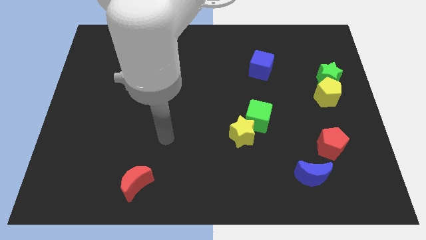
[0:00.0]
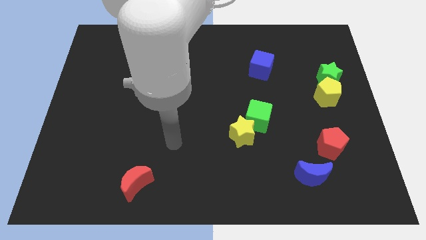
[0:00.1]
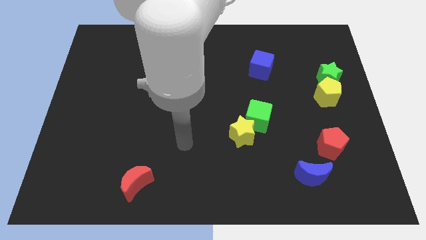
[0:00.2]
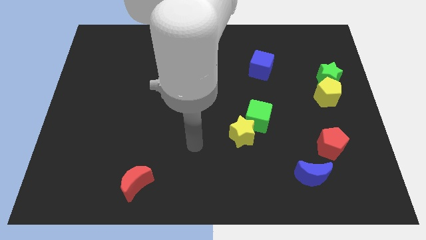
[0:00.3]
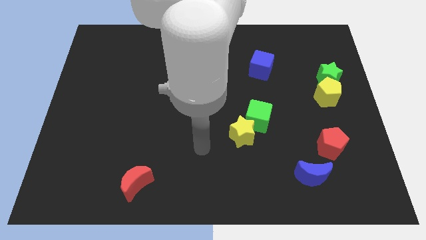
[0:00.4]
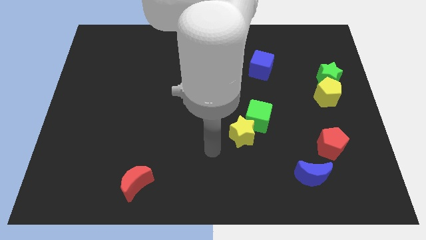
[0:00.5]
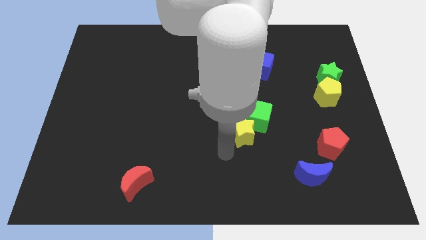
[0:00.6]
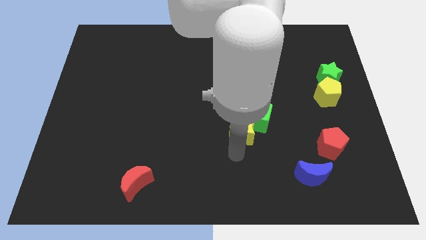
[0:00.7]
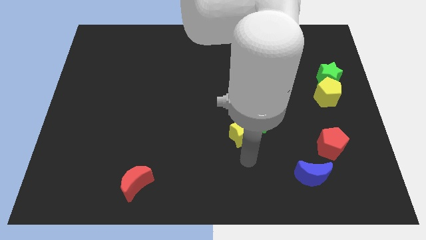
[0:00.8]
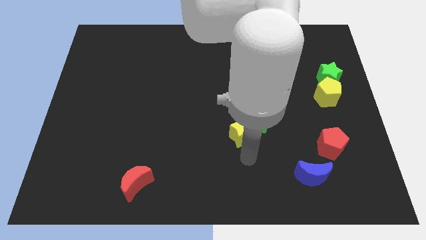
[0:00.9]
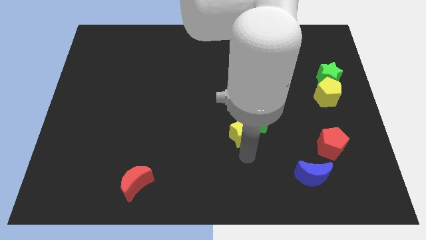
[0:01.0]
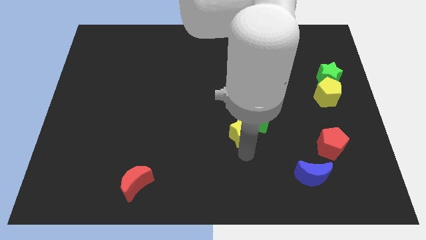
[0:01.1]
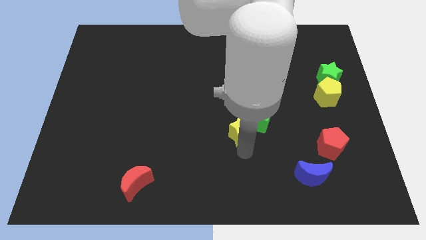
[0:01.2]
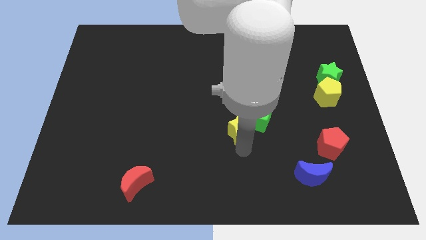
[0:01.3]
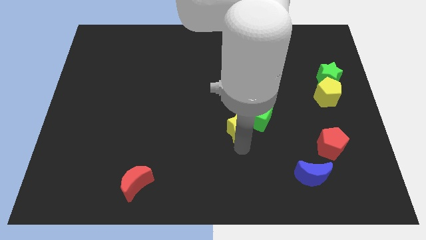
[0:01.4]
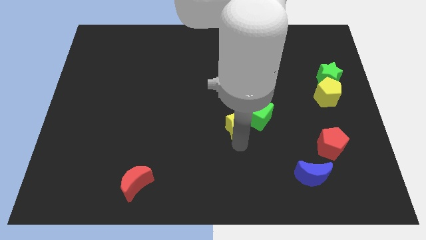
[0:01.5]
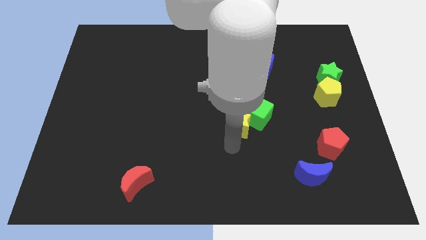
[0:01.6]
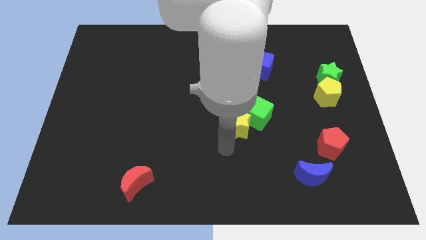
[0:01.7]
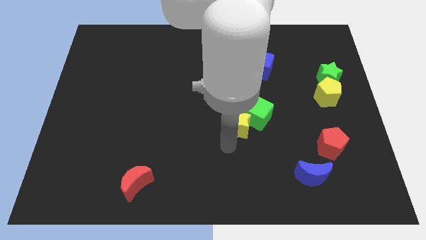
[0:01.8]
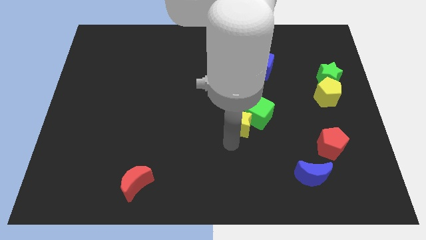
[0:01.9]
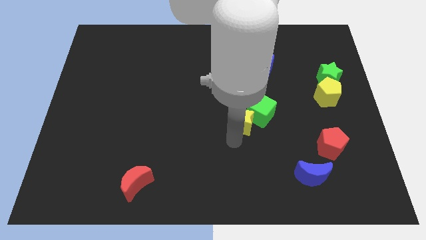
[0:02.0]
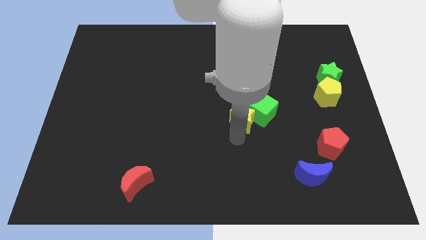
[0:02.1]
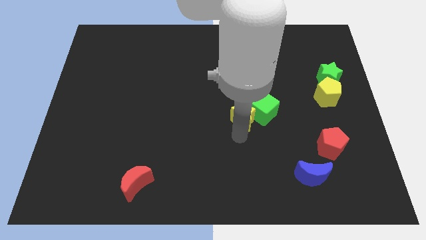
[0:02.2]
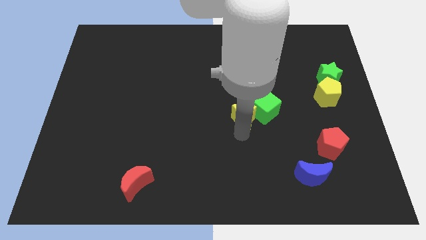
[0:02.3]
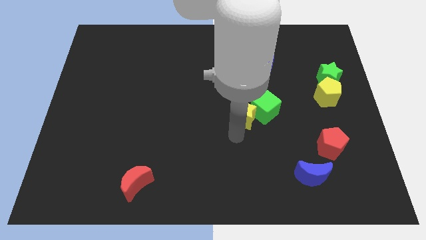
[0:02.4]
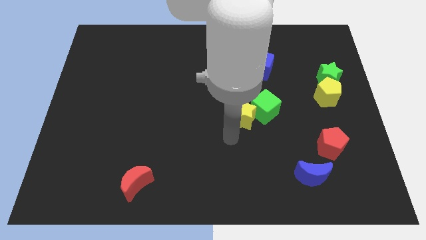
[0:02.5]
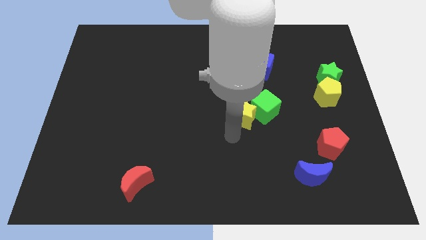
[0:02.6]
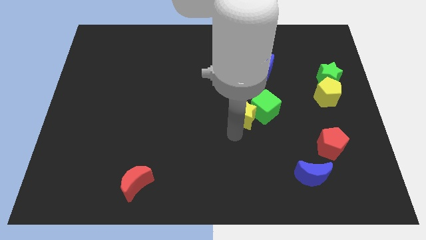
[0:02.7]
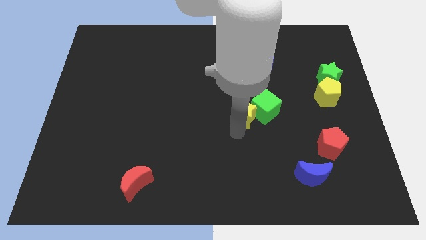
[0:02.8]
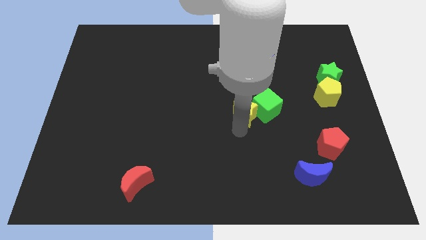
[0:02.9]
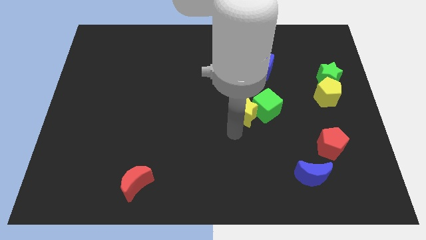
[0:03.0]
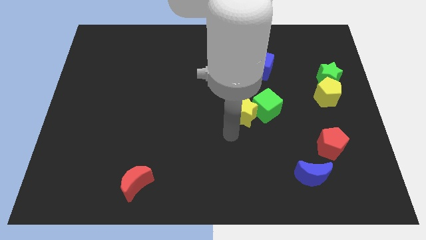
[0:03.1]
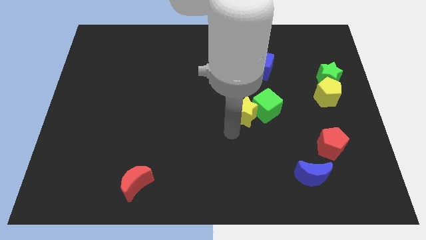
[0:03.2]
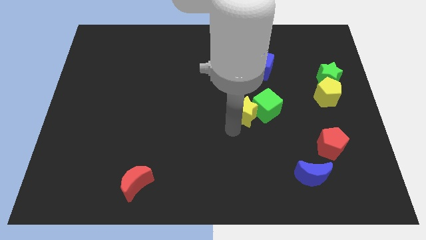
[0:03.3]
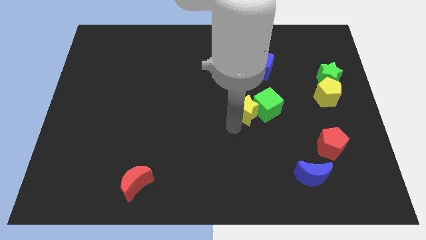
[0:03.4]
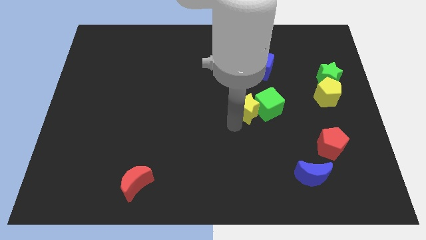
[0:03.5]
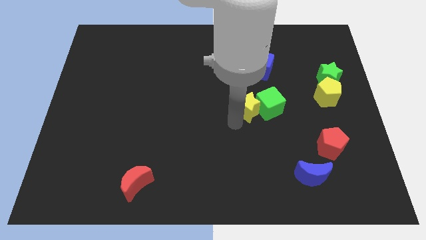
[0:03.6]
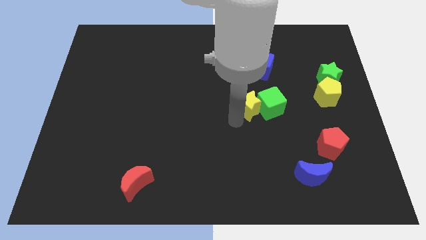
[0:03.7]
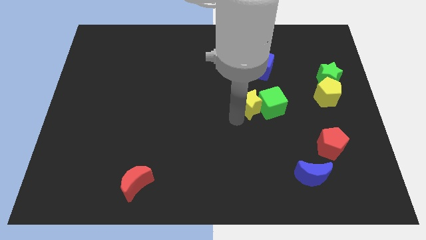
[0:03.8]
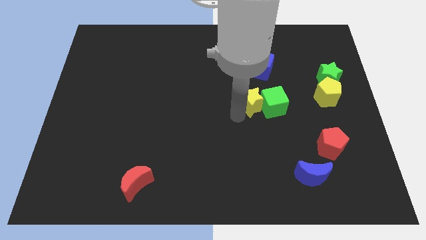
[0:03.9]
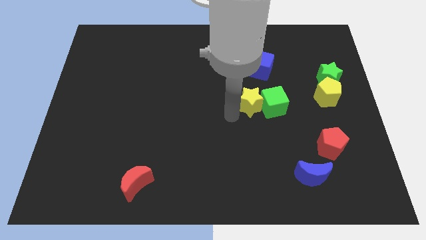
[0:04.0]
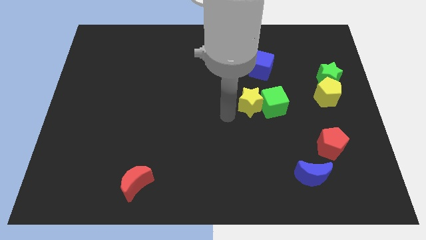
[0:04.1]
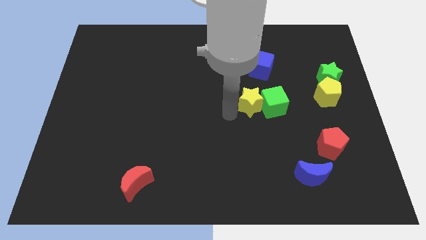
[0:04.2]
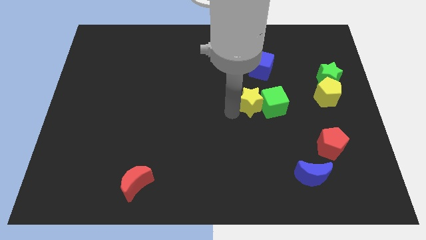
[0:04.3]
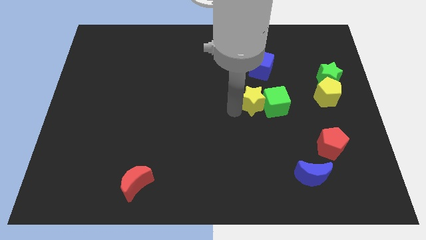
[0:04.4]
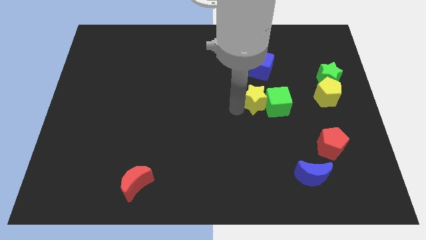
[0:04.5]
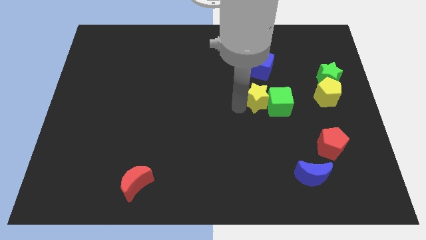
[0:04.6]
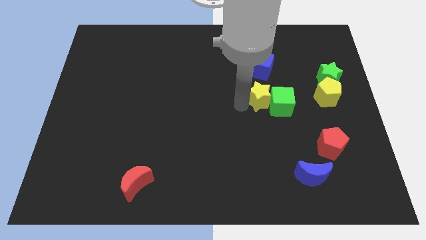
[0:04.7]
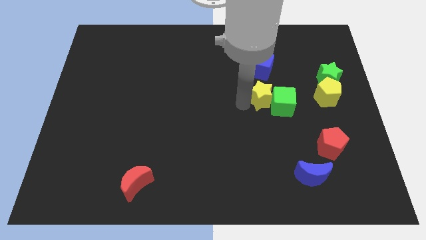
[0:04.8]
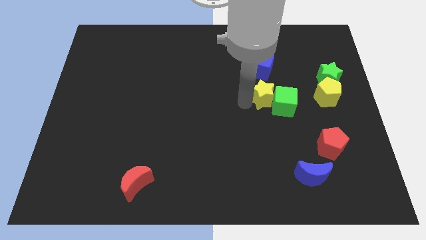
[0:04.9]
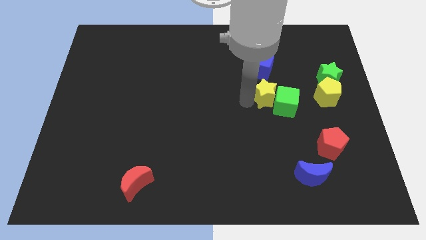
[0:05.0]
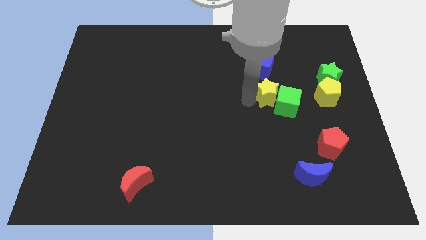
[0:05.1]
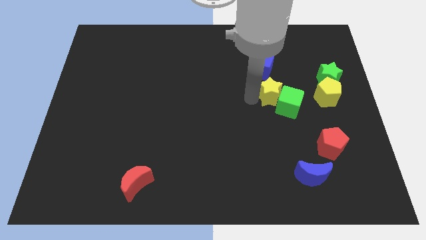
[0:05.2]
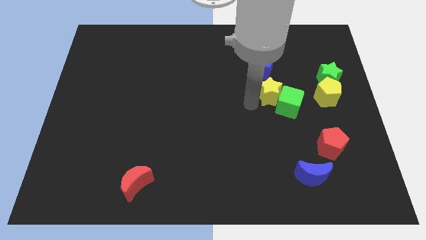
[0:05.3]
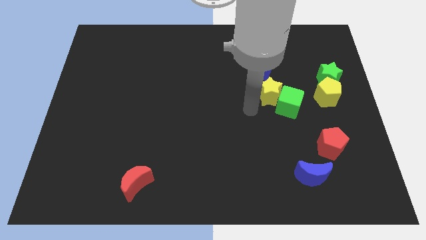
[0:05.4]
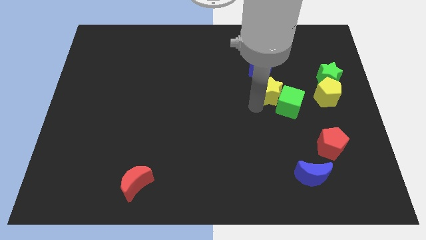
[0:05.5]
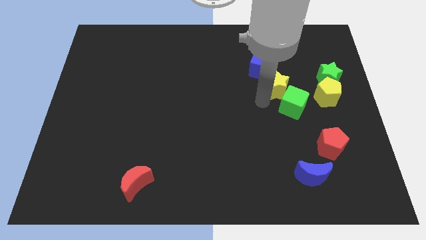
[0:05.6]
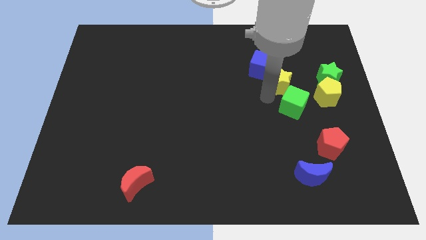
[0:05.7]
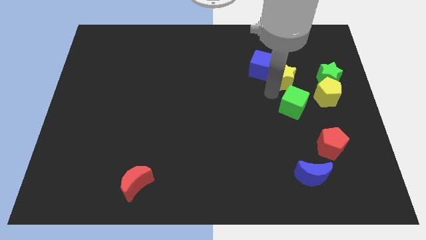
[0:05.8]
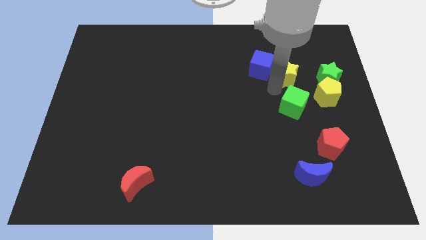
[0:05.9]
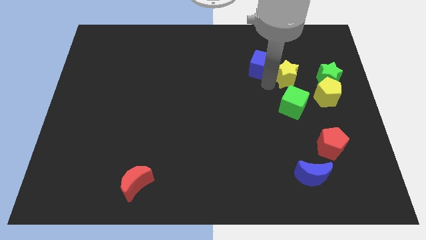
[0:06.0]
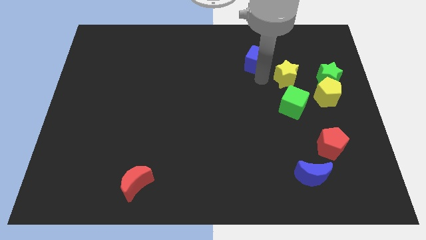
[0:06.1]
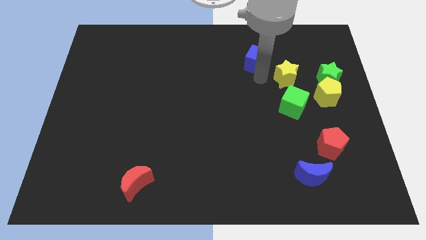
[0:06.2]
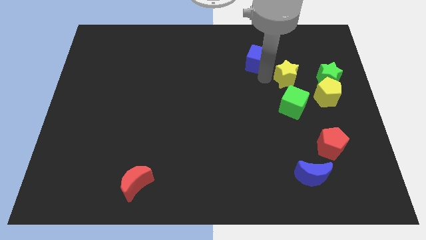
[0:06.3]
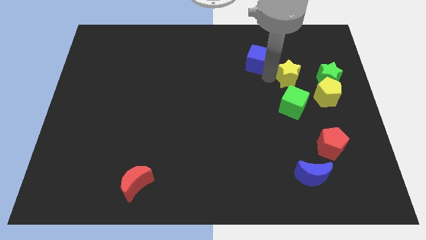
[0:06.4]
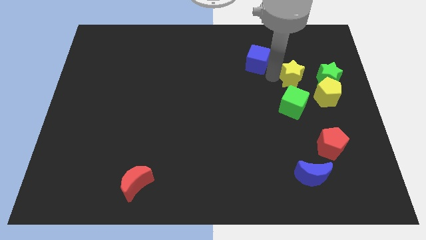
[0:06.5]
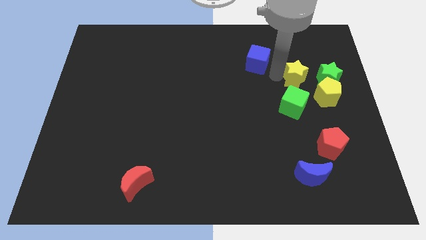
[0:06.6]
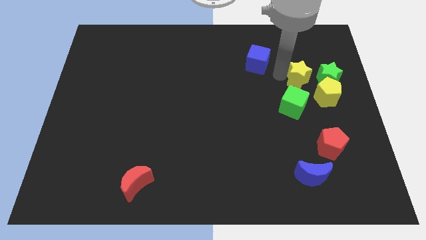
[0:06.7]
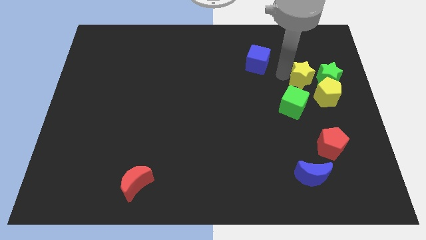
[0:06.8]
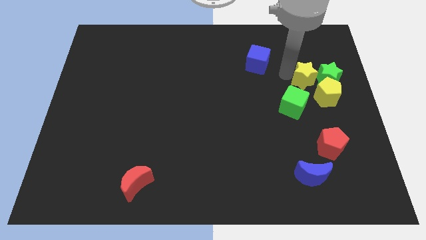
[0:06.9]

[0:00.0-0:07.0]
slide the yellow star close to the green star

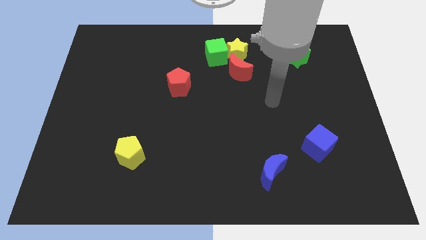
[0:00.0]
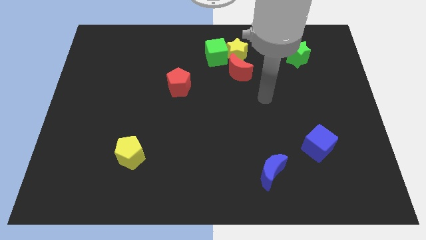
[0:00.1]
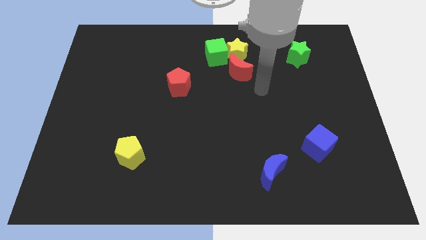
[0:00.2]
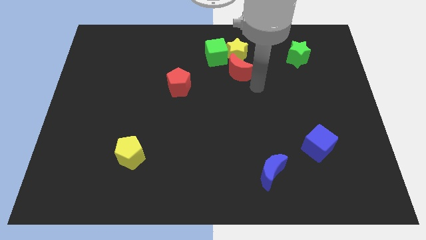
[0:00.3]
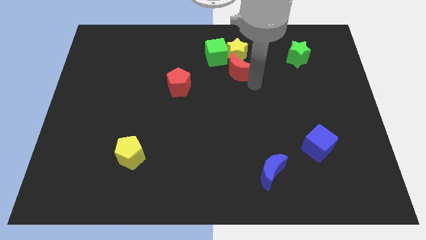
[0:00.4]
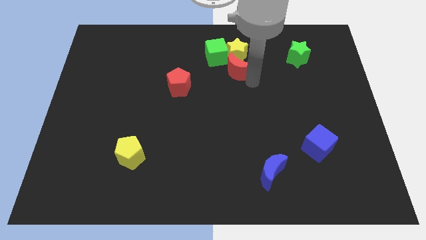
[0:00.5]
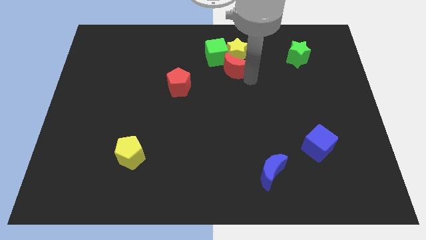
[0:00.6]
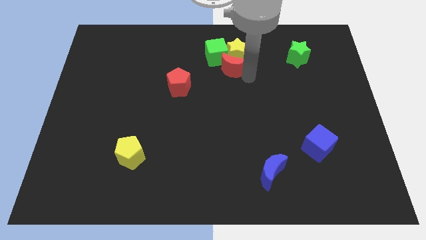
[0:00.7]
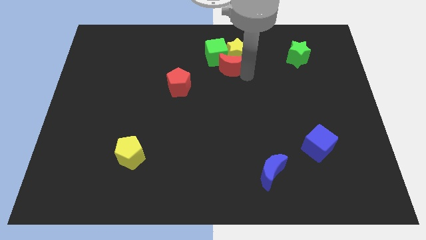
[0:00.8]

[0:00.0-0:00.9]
slide the red moon close to the green cube

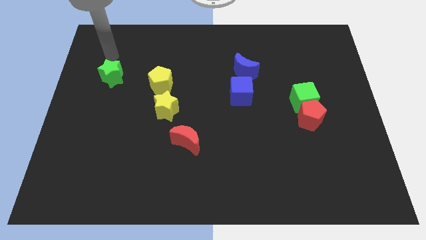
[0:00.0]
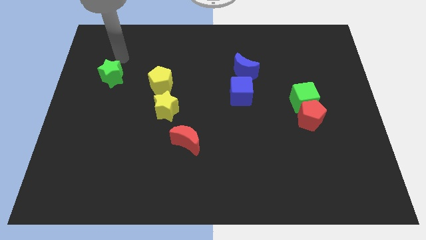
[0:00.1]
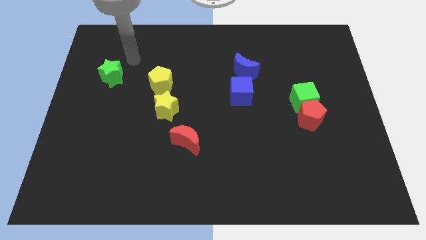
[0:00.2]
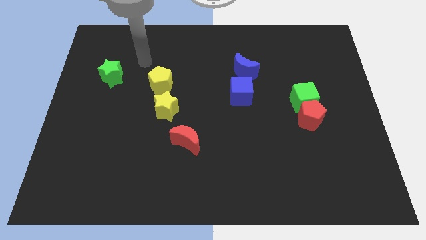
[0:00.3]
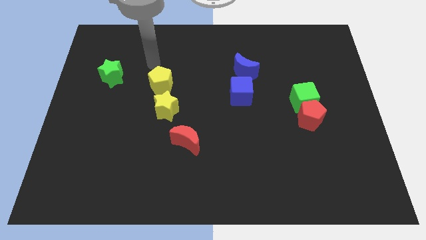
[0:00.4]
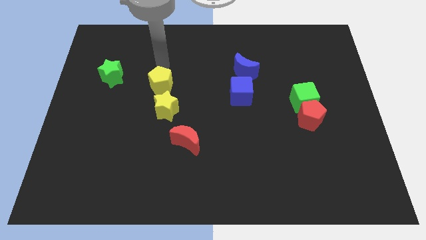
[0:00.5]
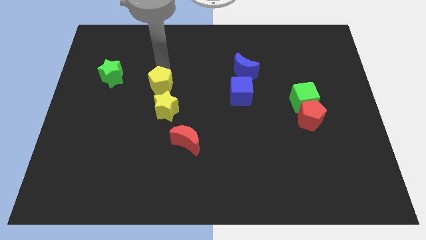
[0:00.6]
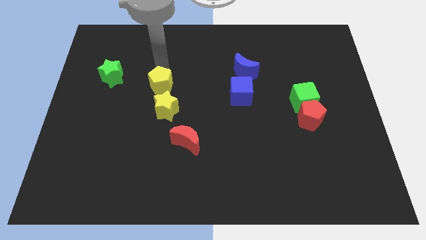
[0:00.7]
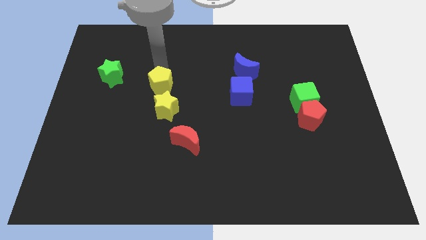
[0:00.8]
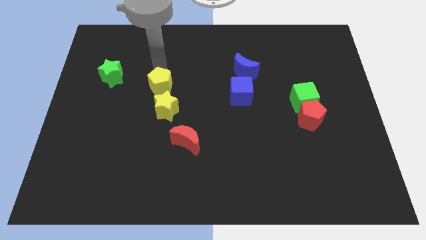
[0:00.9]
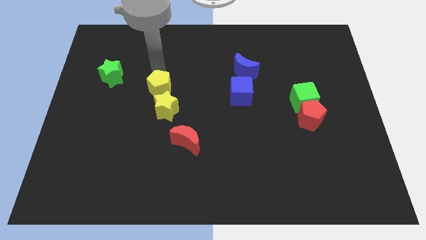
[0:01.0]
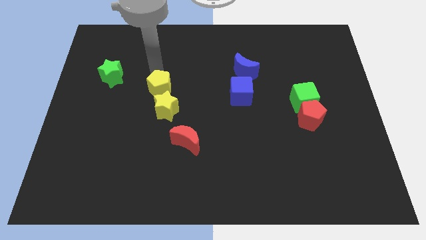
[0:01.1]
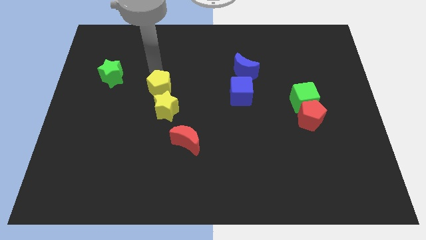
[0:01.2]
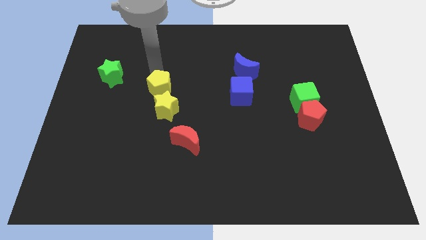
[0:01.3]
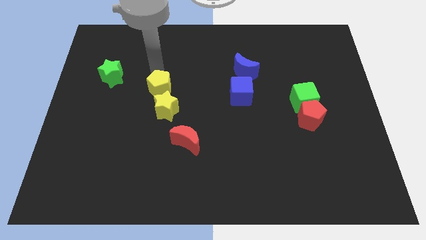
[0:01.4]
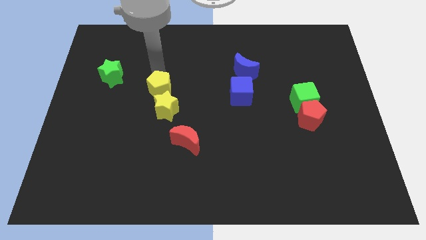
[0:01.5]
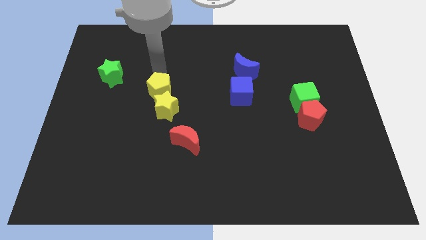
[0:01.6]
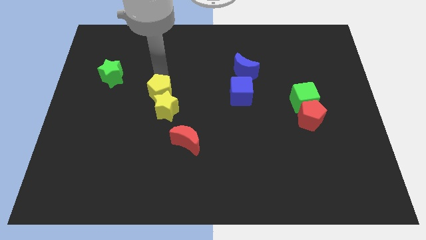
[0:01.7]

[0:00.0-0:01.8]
slide the yellow pentagon towards the yellow star
